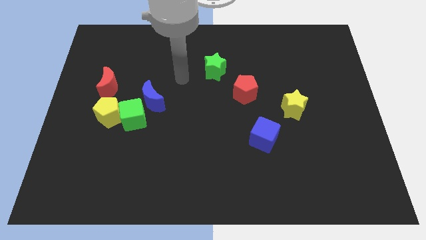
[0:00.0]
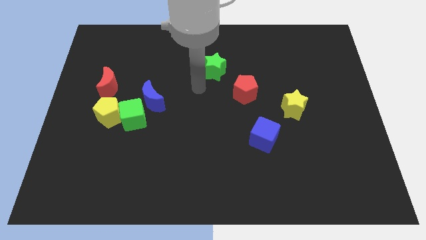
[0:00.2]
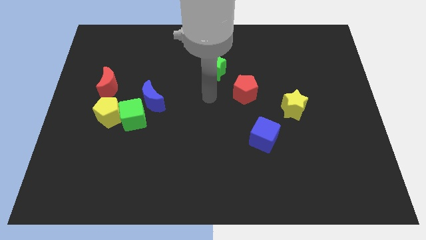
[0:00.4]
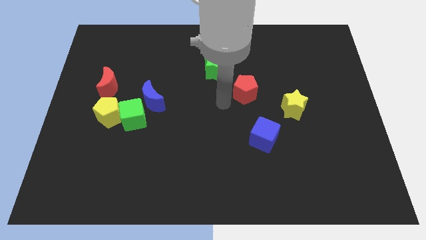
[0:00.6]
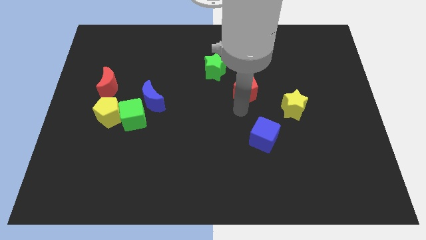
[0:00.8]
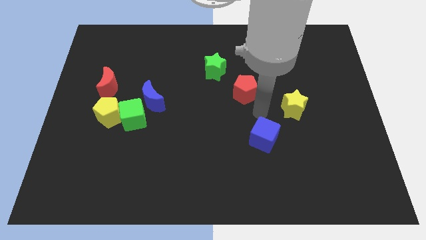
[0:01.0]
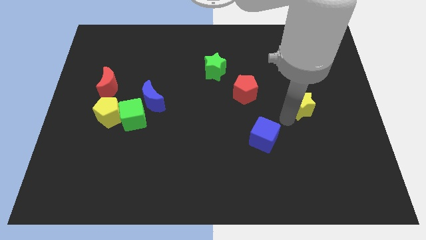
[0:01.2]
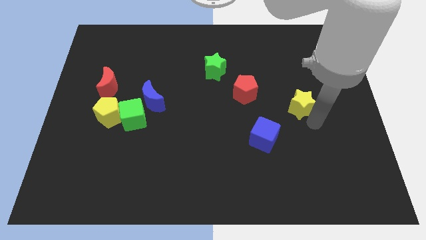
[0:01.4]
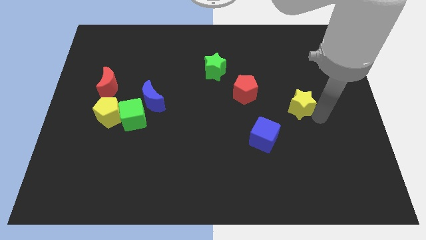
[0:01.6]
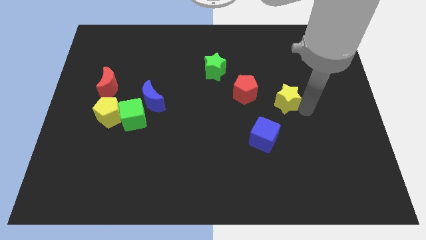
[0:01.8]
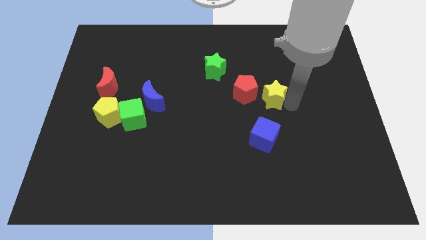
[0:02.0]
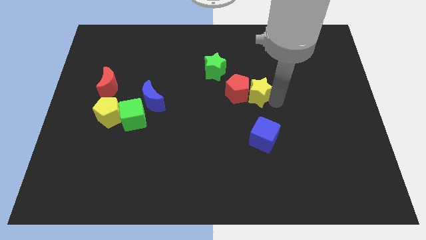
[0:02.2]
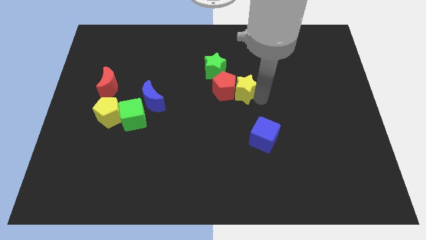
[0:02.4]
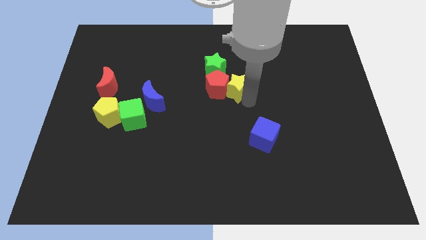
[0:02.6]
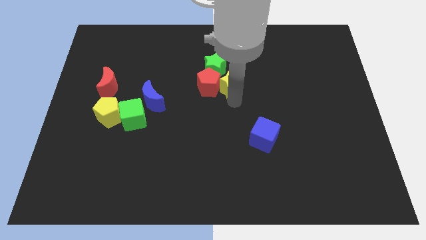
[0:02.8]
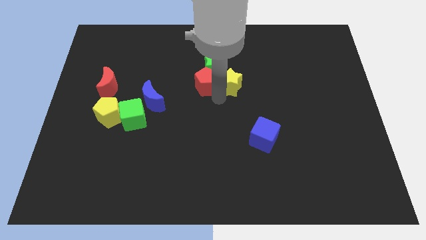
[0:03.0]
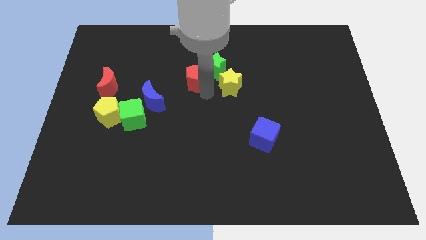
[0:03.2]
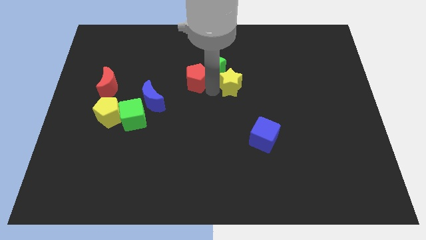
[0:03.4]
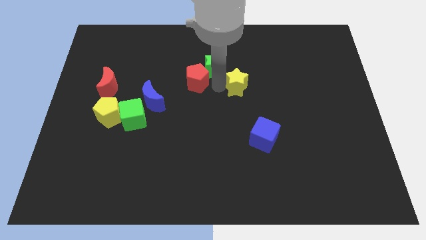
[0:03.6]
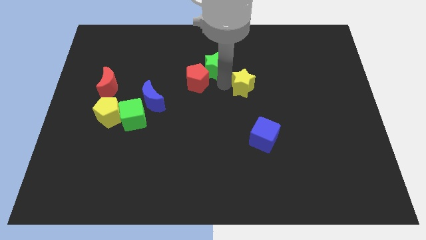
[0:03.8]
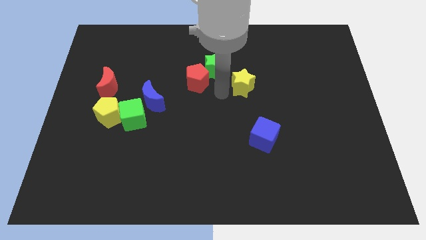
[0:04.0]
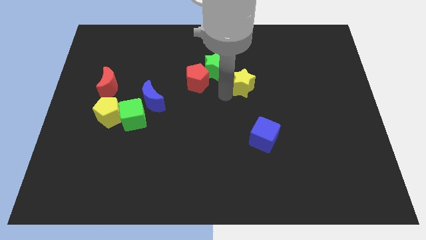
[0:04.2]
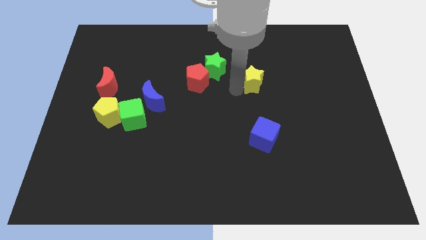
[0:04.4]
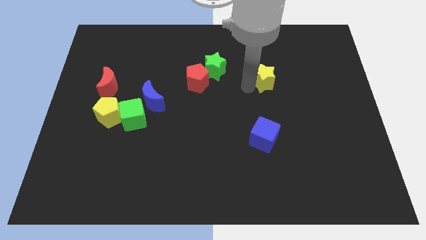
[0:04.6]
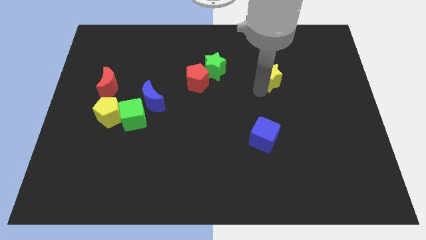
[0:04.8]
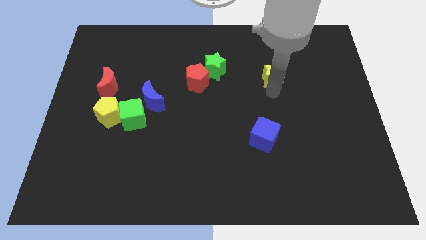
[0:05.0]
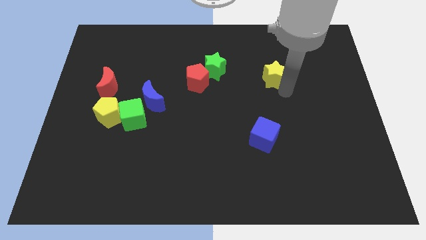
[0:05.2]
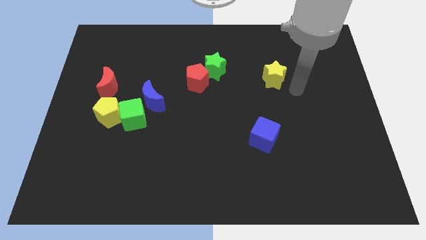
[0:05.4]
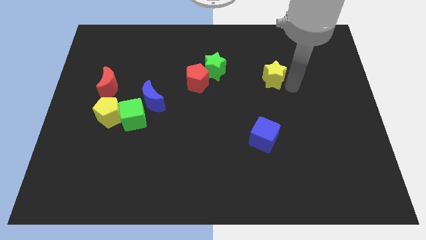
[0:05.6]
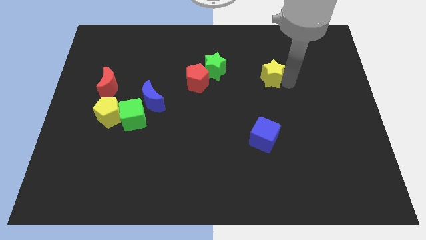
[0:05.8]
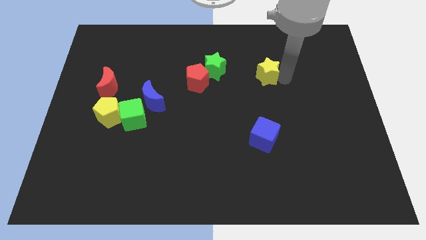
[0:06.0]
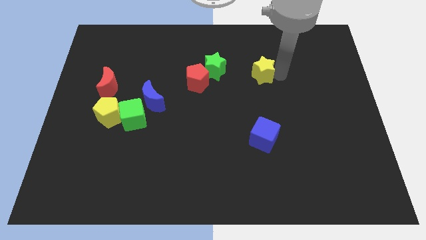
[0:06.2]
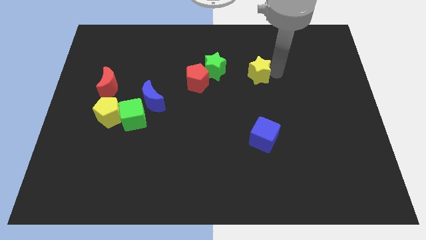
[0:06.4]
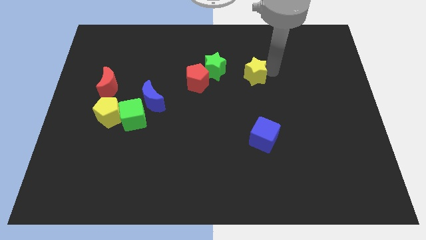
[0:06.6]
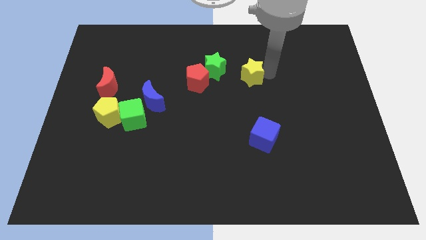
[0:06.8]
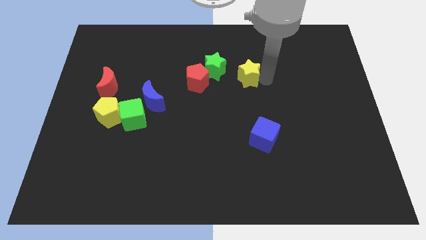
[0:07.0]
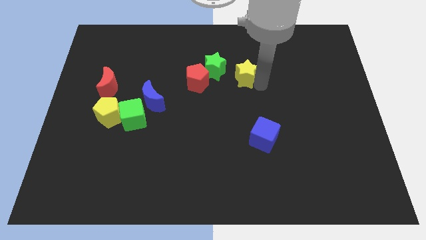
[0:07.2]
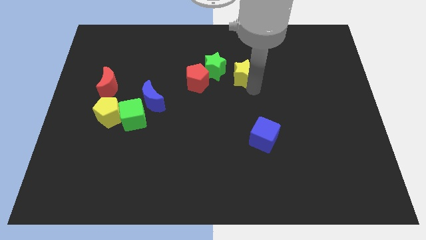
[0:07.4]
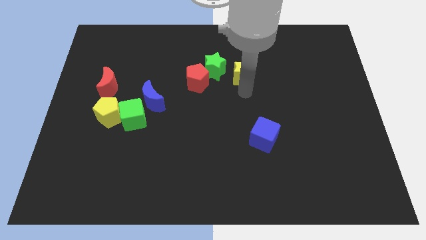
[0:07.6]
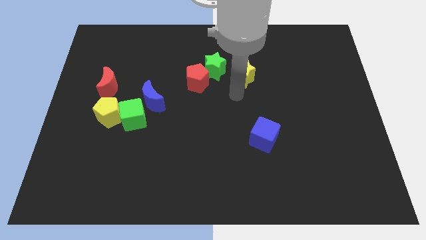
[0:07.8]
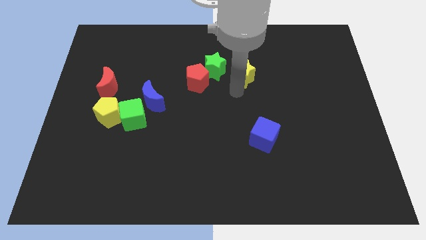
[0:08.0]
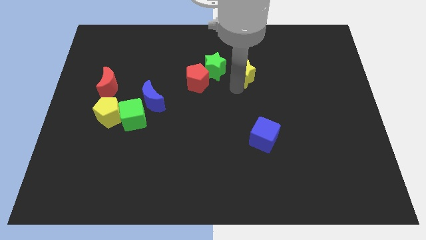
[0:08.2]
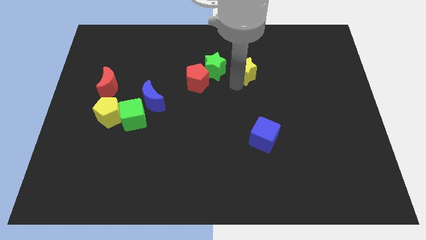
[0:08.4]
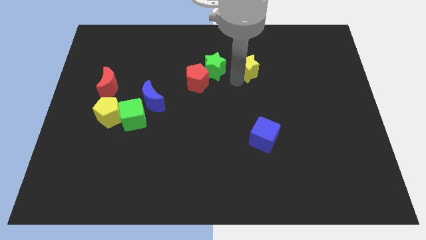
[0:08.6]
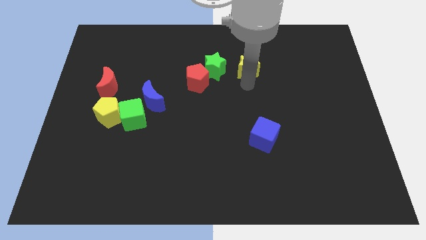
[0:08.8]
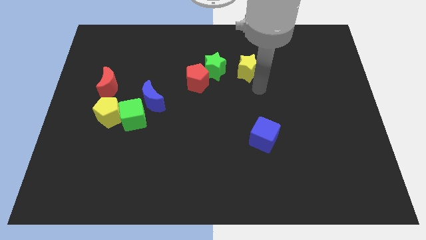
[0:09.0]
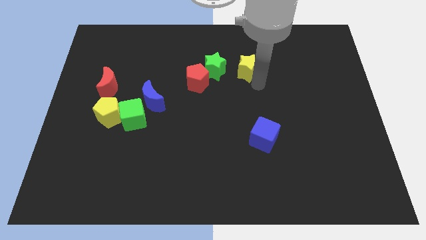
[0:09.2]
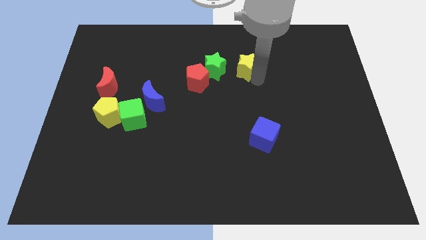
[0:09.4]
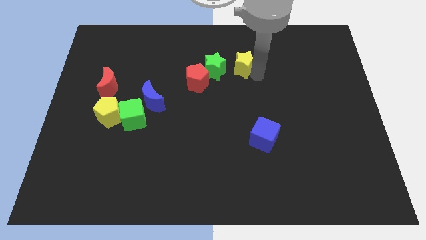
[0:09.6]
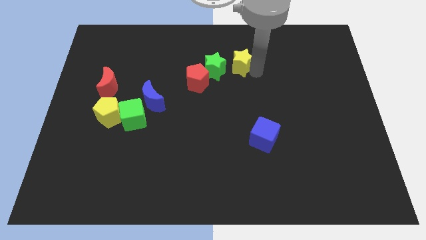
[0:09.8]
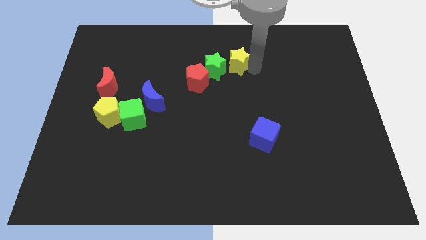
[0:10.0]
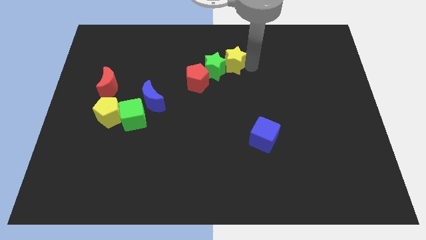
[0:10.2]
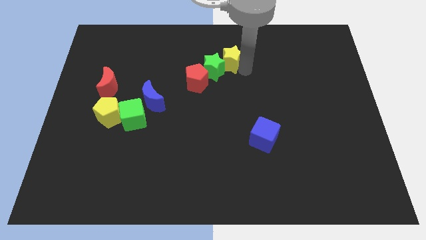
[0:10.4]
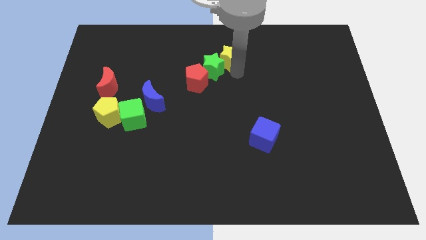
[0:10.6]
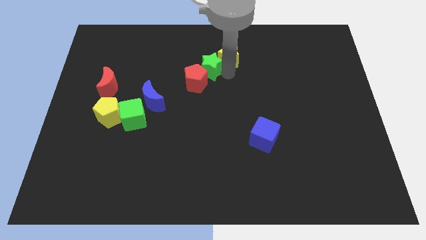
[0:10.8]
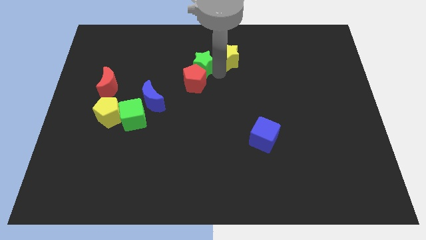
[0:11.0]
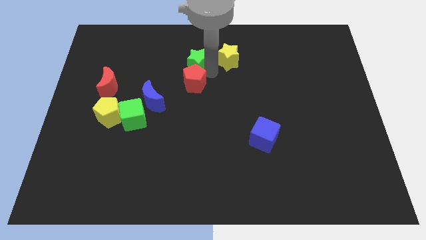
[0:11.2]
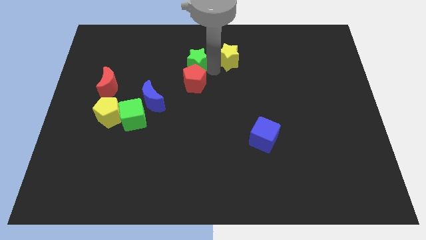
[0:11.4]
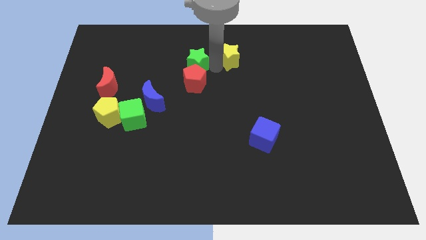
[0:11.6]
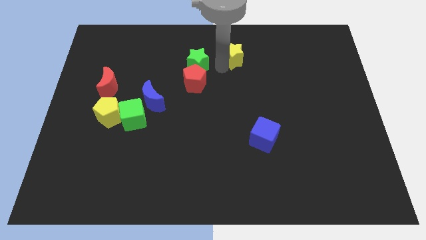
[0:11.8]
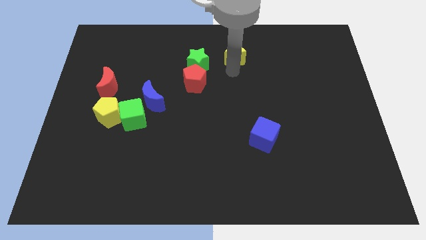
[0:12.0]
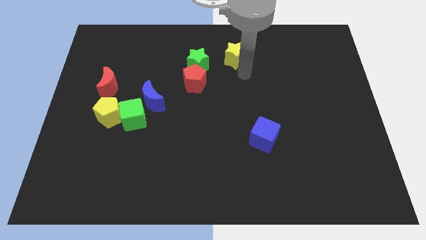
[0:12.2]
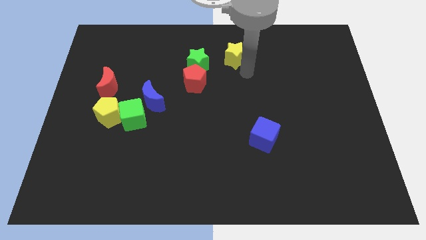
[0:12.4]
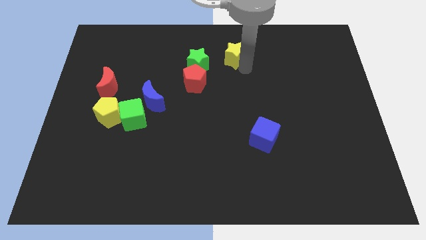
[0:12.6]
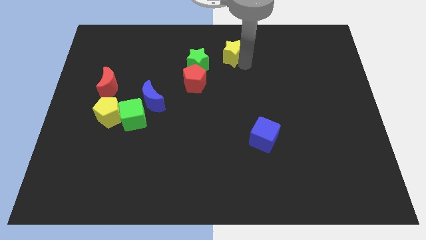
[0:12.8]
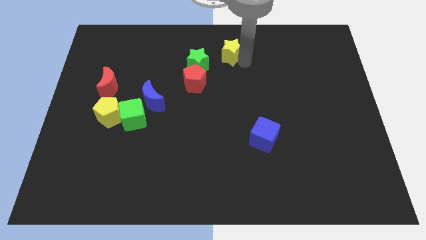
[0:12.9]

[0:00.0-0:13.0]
move the yellow star to the top
